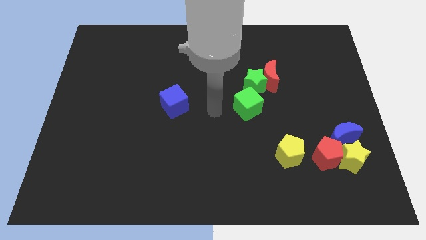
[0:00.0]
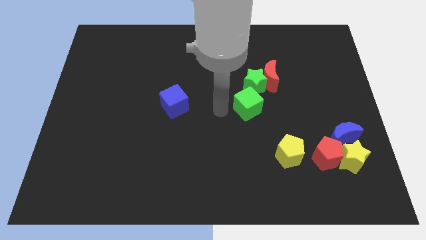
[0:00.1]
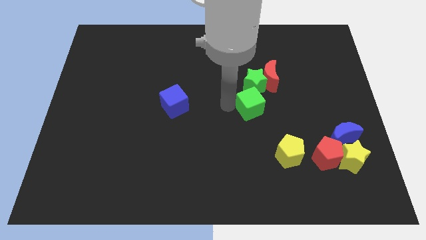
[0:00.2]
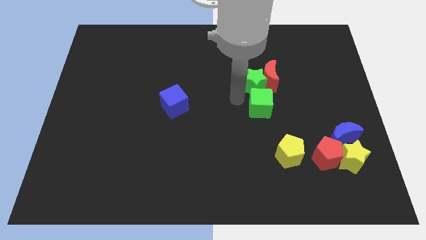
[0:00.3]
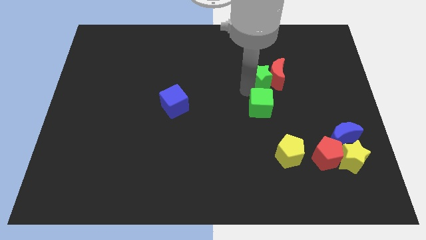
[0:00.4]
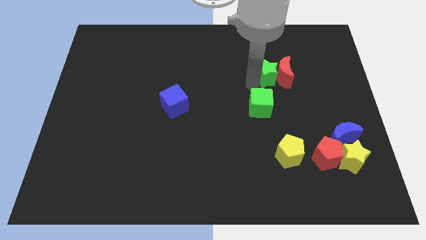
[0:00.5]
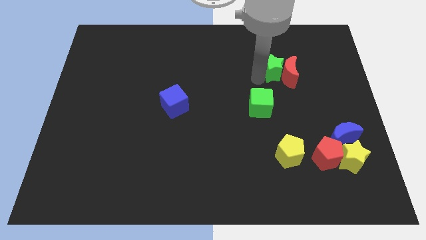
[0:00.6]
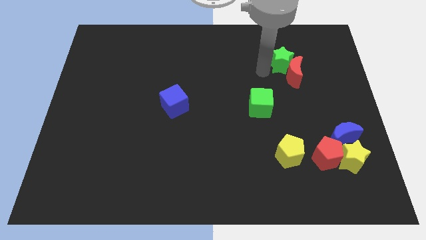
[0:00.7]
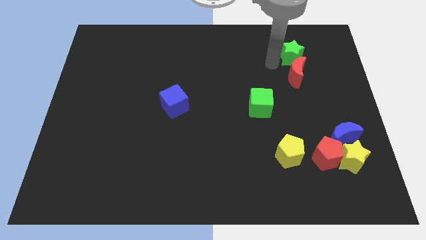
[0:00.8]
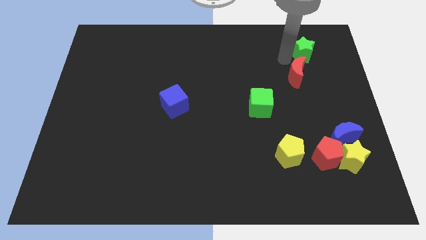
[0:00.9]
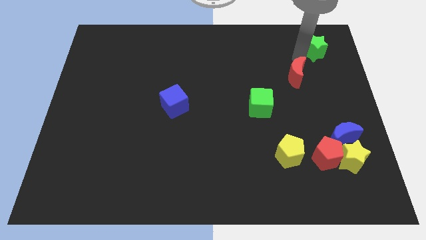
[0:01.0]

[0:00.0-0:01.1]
pull the red moon apart from the green star

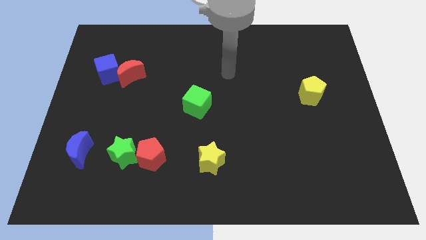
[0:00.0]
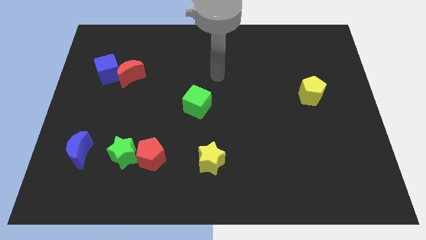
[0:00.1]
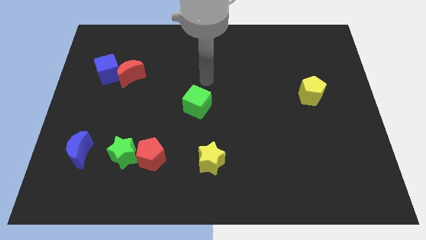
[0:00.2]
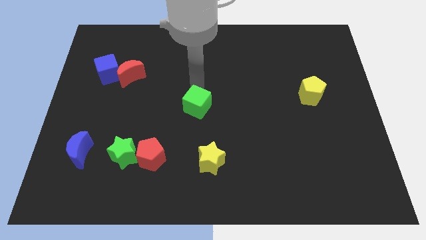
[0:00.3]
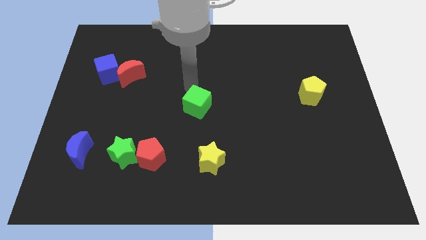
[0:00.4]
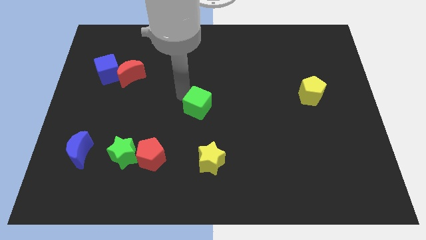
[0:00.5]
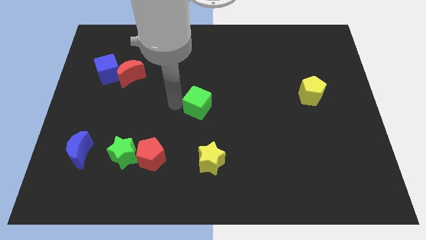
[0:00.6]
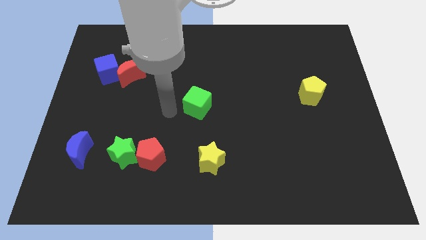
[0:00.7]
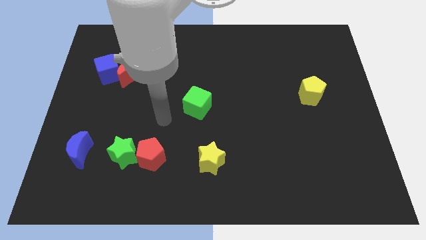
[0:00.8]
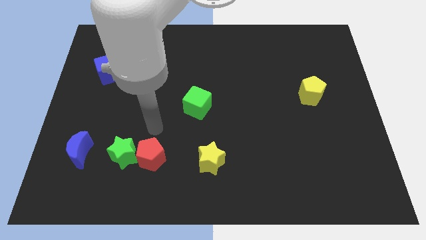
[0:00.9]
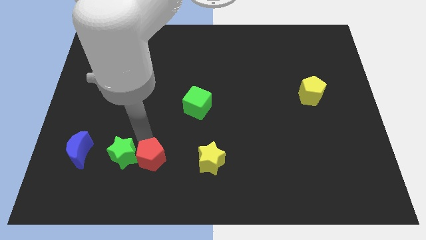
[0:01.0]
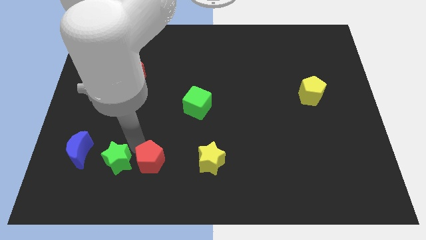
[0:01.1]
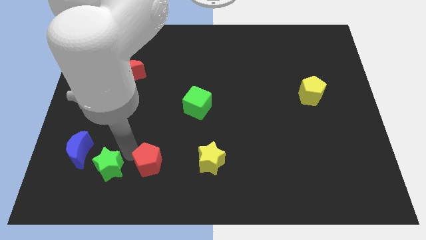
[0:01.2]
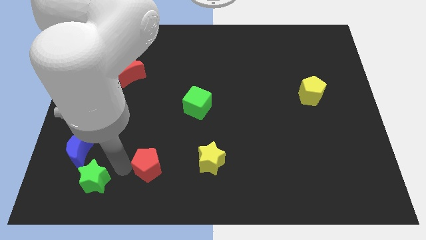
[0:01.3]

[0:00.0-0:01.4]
pull the red pentagon apart from the green star

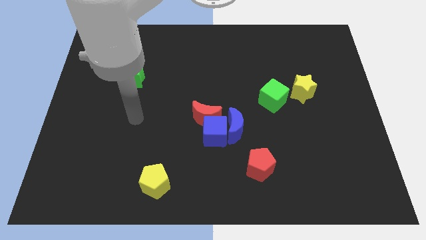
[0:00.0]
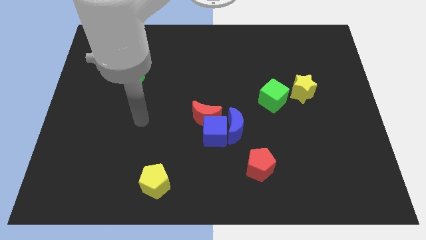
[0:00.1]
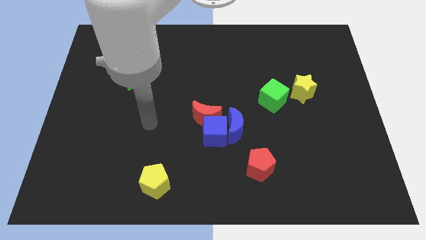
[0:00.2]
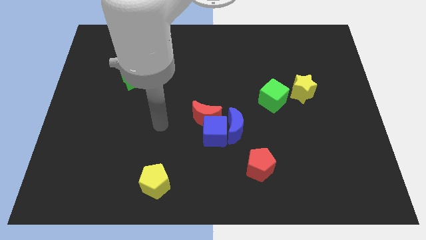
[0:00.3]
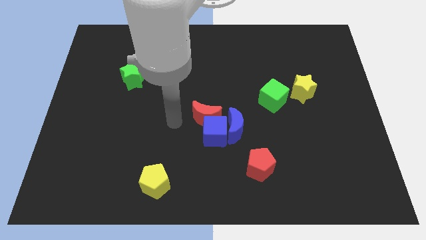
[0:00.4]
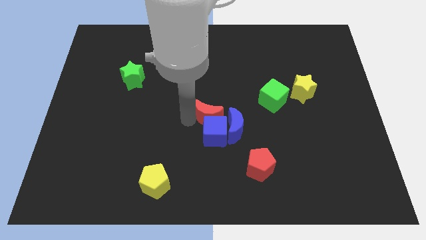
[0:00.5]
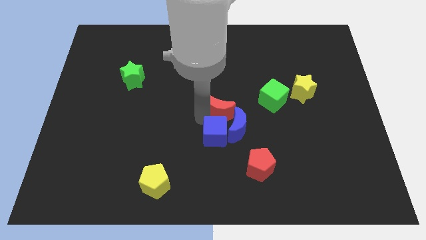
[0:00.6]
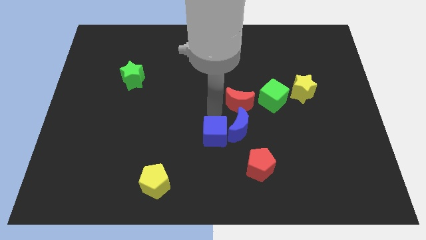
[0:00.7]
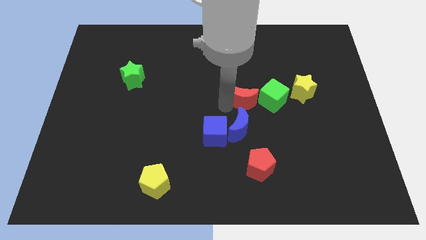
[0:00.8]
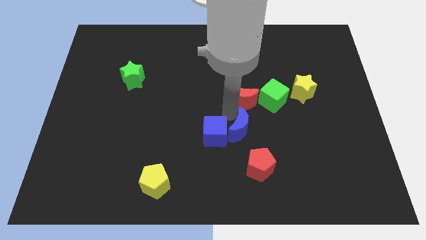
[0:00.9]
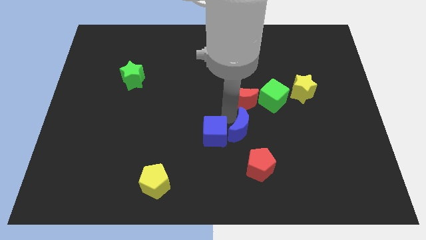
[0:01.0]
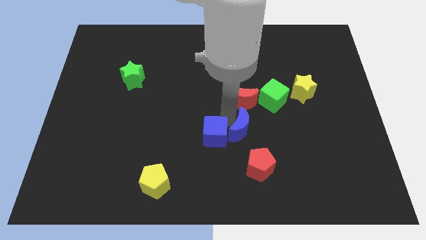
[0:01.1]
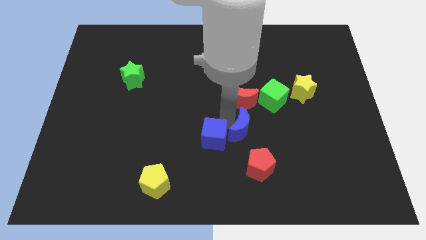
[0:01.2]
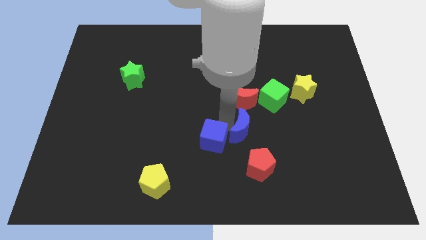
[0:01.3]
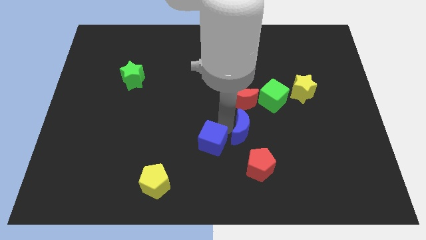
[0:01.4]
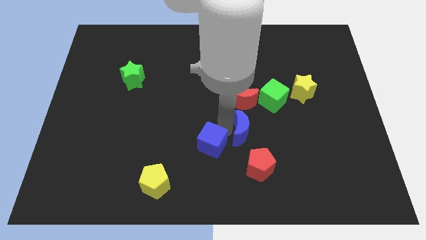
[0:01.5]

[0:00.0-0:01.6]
pull the blue cube apart from the blue moon and red moon

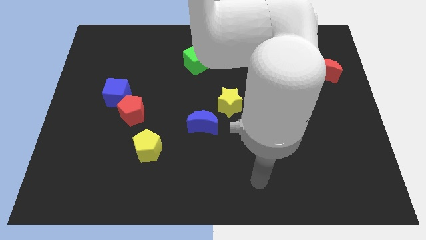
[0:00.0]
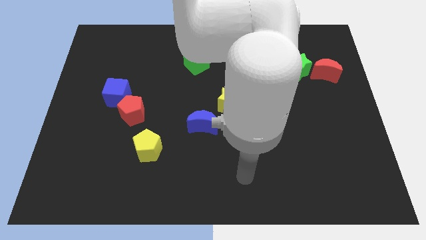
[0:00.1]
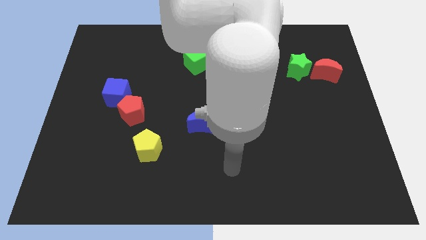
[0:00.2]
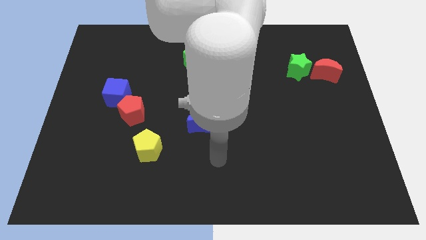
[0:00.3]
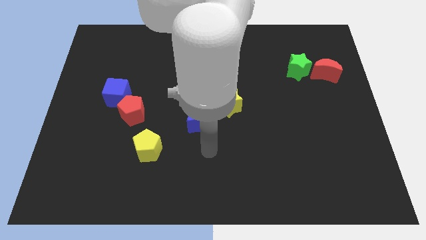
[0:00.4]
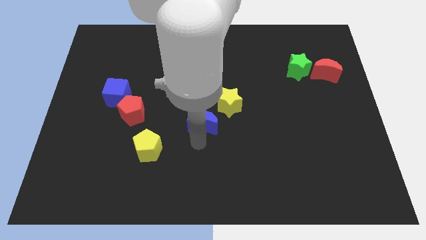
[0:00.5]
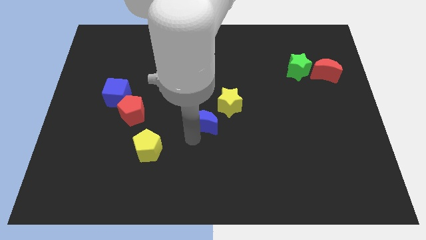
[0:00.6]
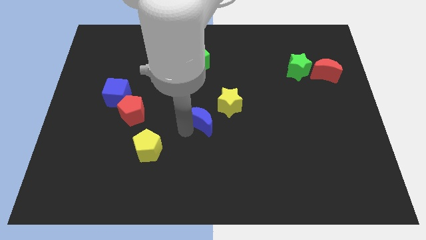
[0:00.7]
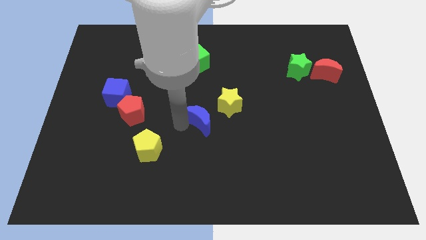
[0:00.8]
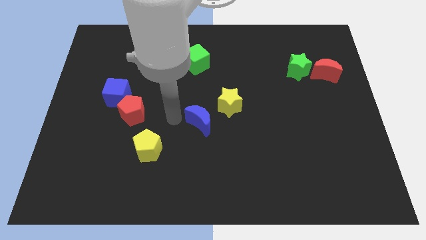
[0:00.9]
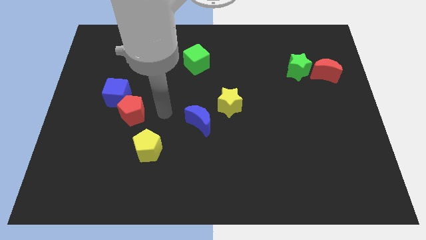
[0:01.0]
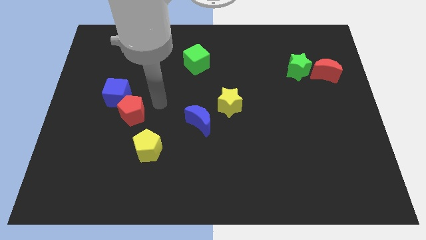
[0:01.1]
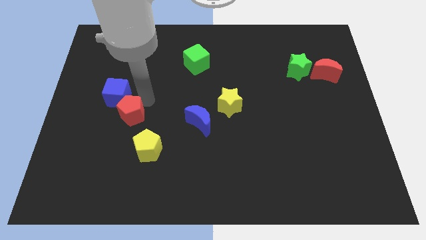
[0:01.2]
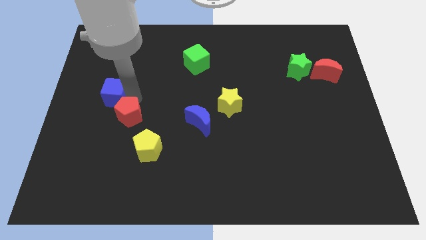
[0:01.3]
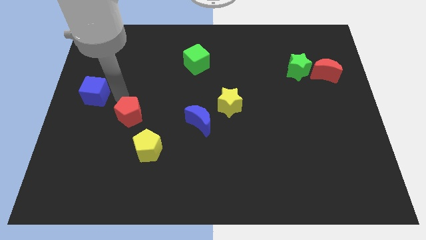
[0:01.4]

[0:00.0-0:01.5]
separate the red pentagon from the blue cube

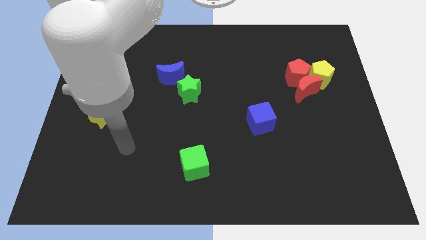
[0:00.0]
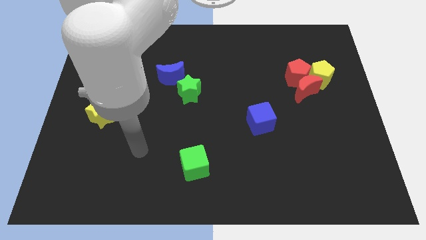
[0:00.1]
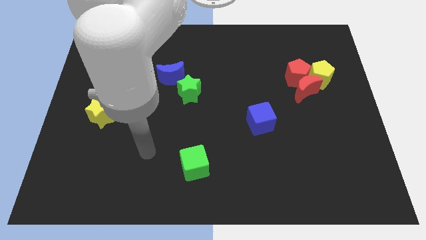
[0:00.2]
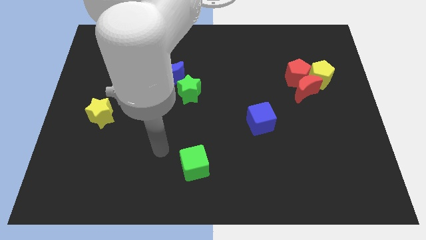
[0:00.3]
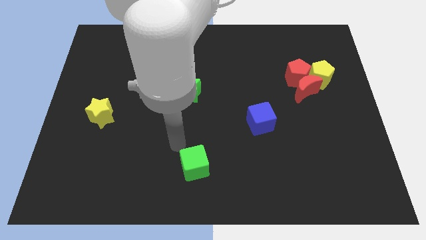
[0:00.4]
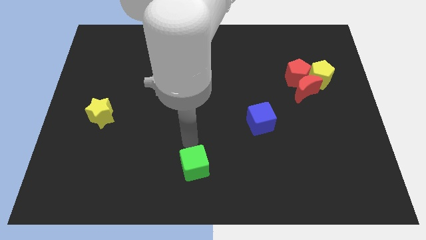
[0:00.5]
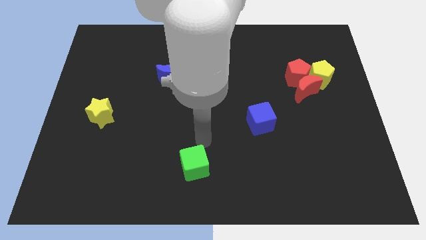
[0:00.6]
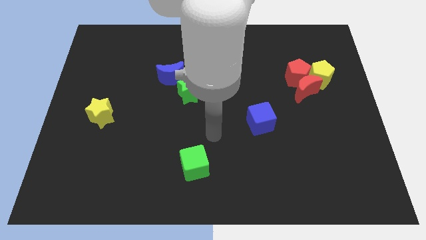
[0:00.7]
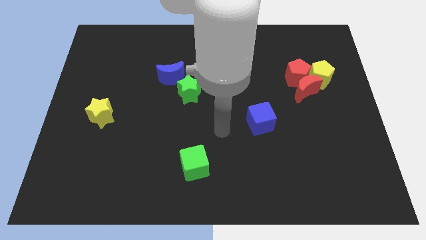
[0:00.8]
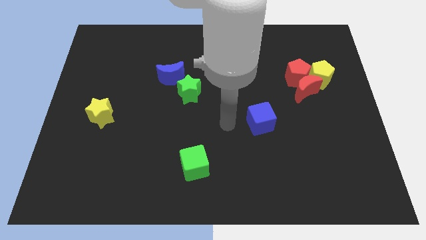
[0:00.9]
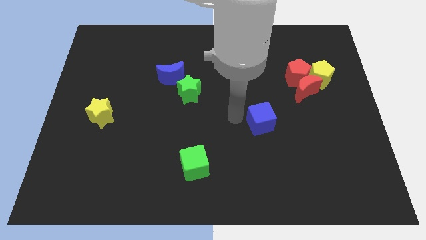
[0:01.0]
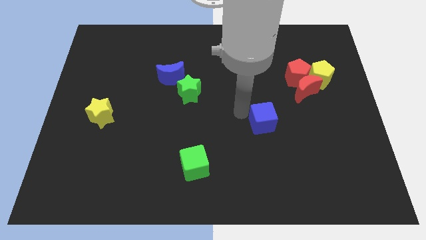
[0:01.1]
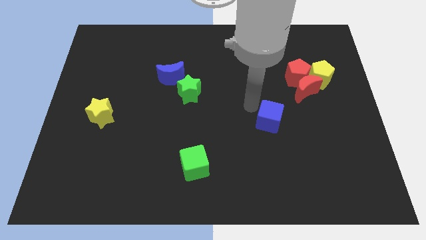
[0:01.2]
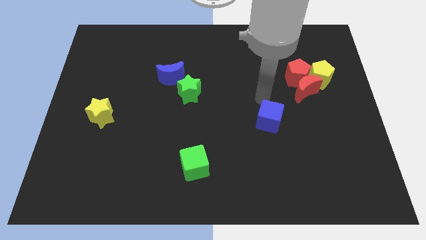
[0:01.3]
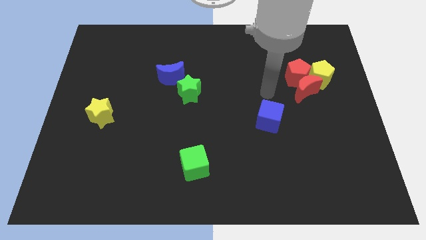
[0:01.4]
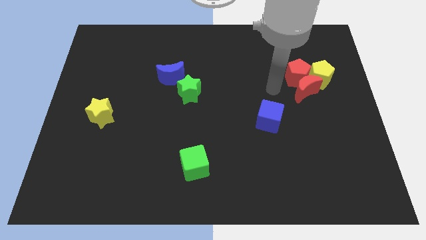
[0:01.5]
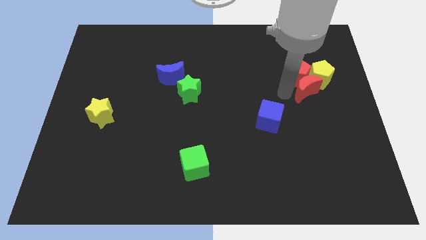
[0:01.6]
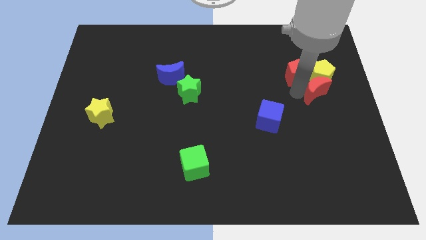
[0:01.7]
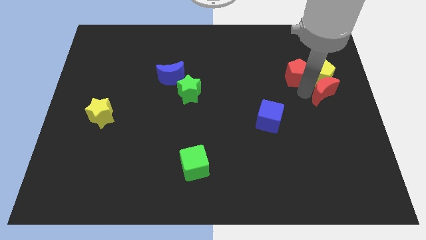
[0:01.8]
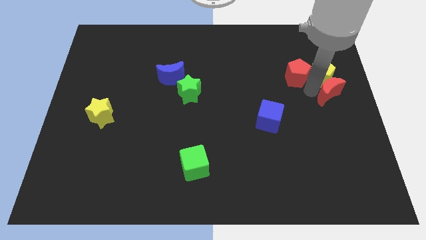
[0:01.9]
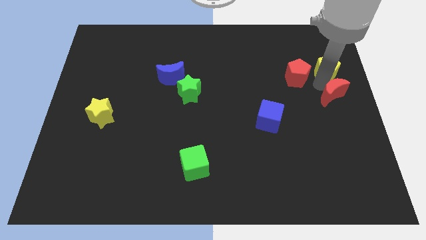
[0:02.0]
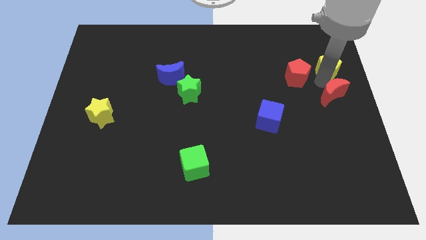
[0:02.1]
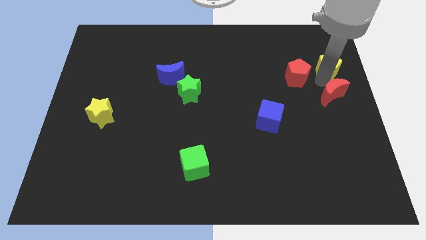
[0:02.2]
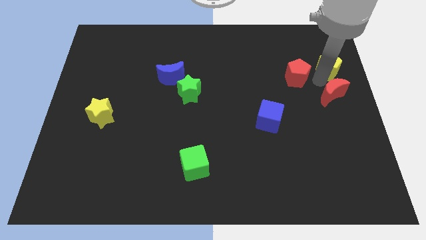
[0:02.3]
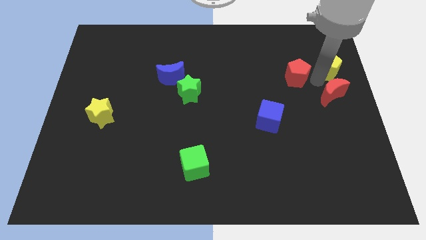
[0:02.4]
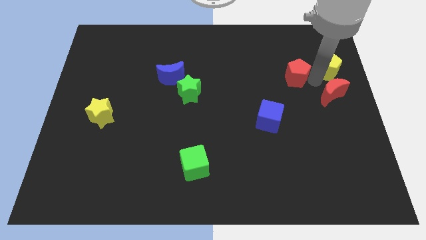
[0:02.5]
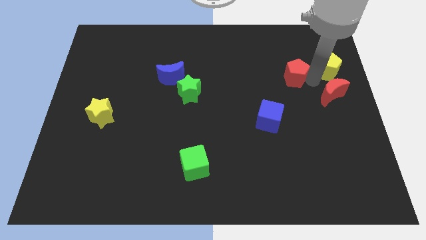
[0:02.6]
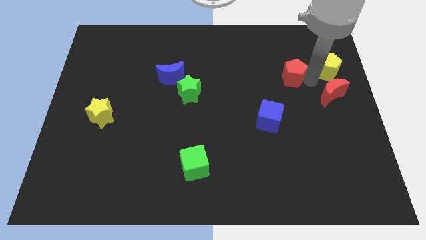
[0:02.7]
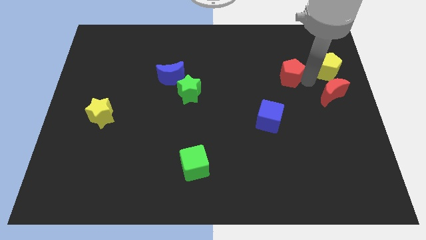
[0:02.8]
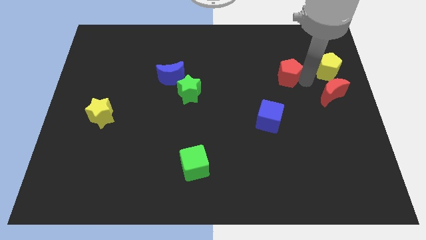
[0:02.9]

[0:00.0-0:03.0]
move the red pentagon away from the red moon and yellow pentagon

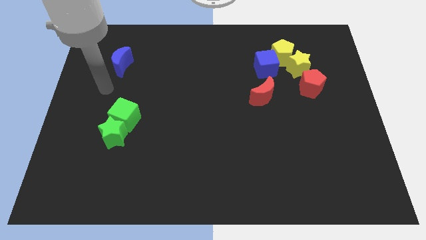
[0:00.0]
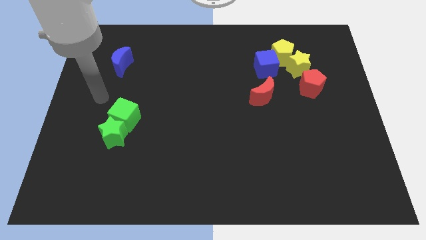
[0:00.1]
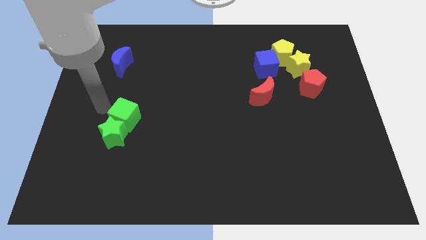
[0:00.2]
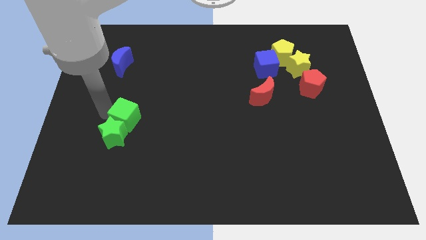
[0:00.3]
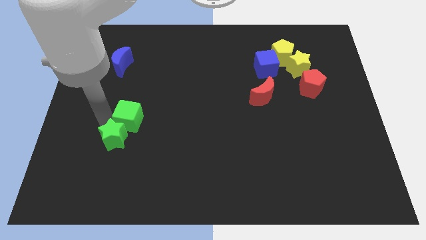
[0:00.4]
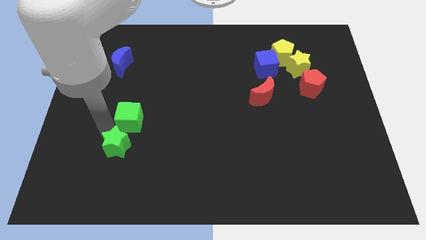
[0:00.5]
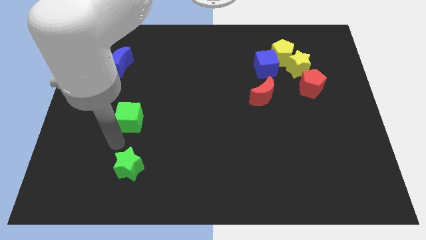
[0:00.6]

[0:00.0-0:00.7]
separate the green cube from the green star
